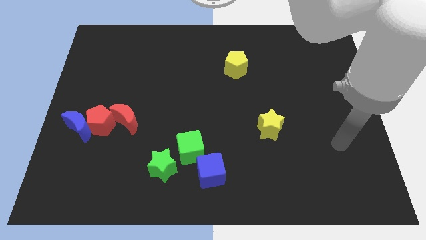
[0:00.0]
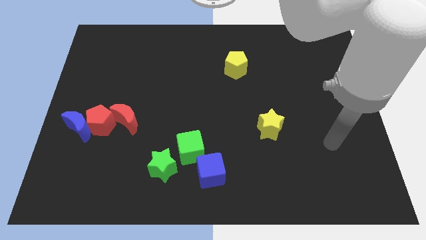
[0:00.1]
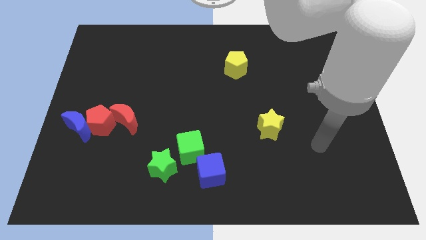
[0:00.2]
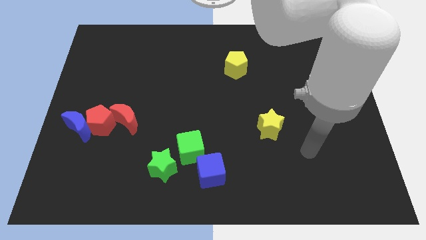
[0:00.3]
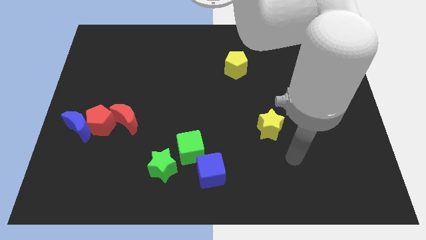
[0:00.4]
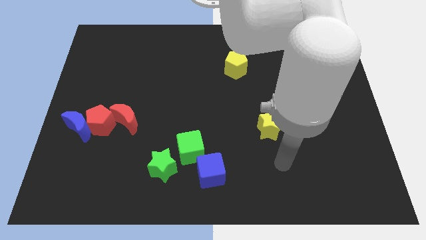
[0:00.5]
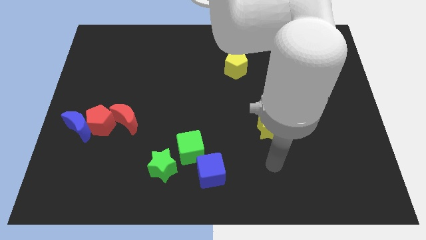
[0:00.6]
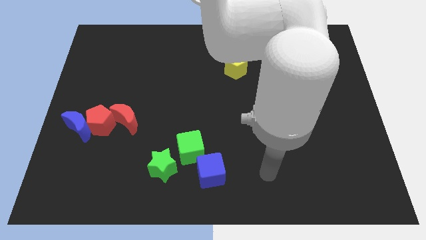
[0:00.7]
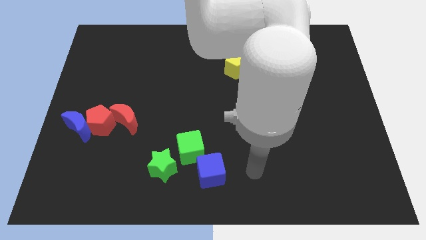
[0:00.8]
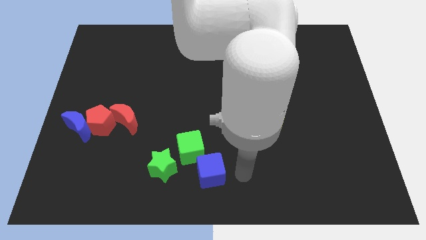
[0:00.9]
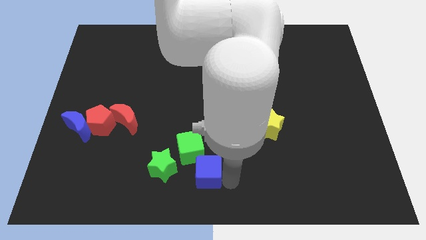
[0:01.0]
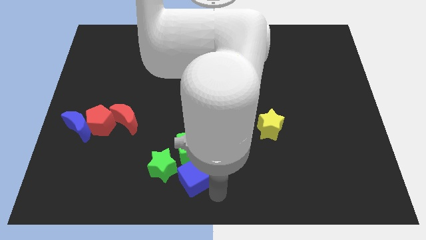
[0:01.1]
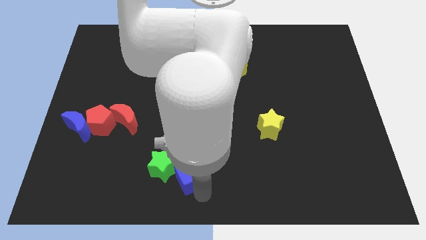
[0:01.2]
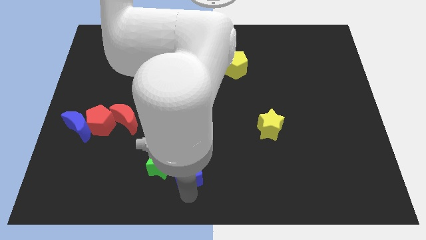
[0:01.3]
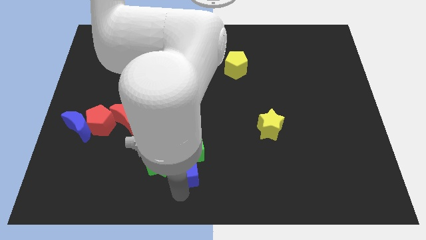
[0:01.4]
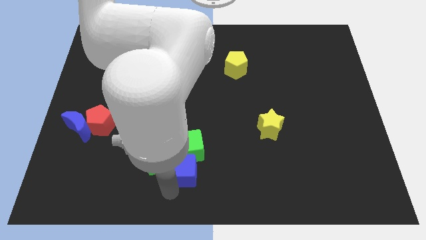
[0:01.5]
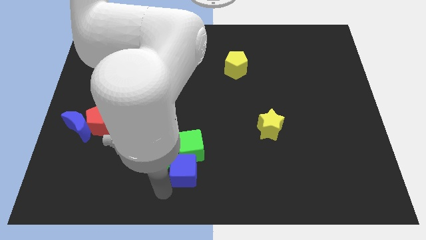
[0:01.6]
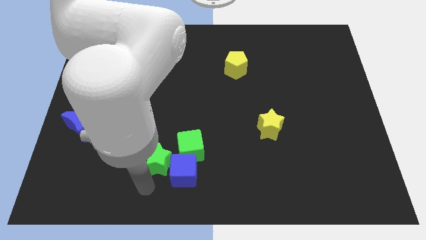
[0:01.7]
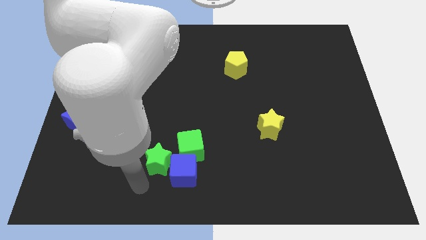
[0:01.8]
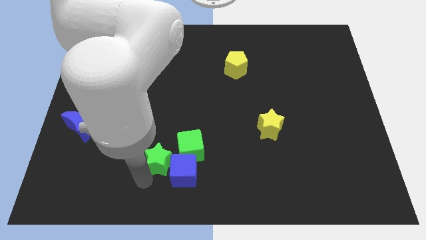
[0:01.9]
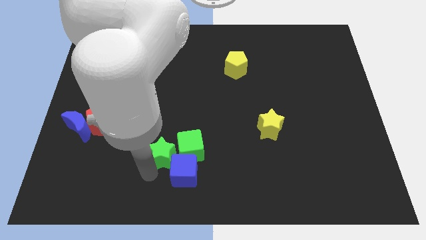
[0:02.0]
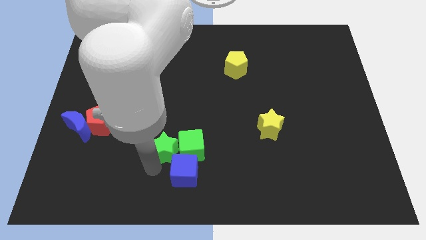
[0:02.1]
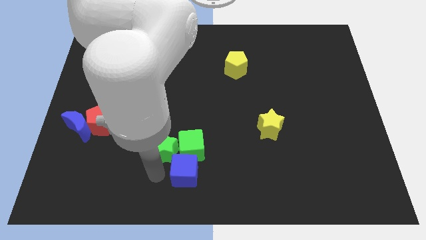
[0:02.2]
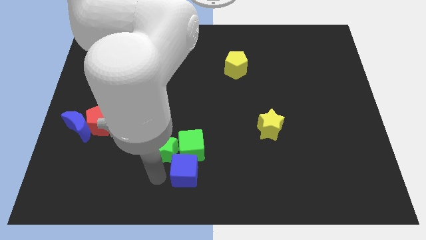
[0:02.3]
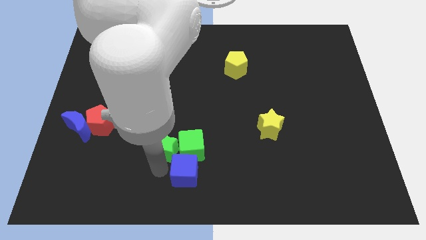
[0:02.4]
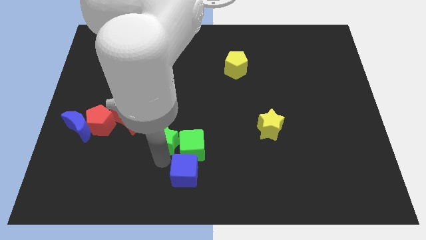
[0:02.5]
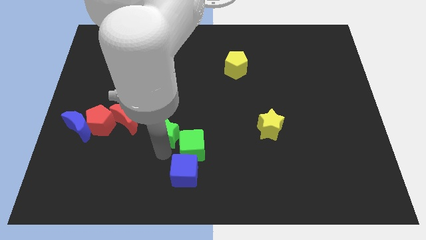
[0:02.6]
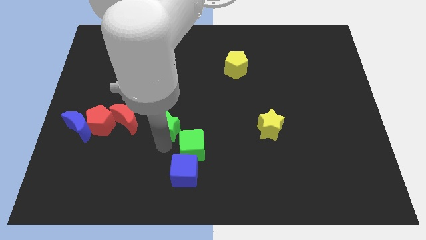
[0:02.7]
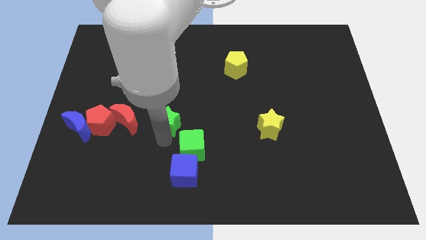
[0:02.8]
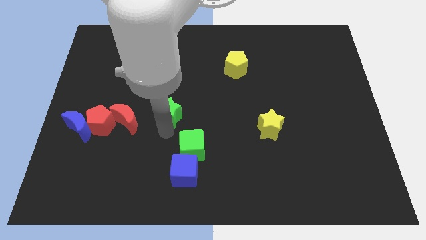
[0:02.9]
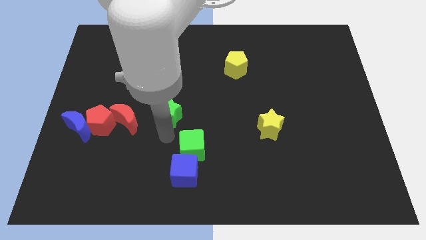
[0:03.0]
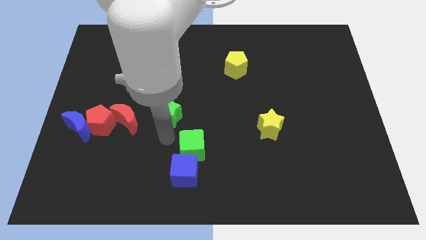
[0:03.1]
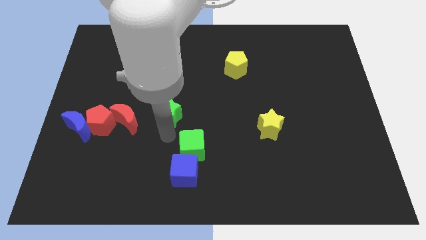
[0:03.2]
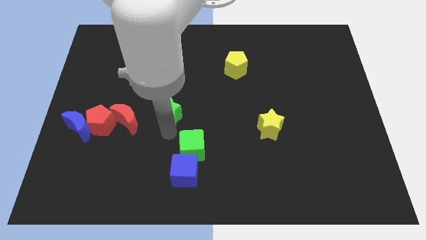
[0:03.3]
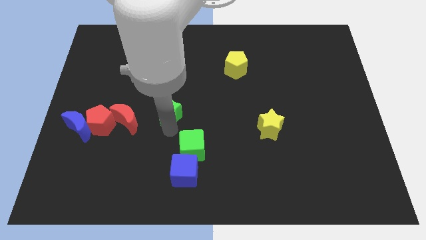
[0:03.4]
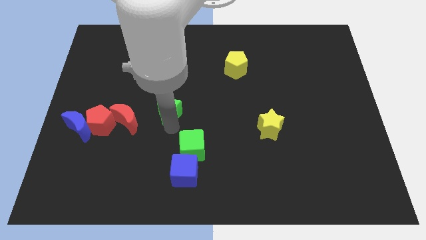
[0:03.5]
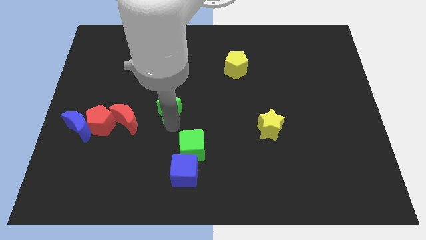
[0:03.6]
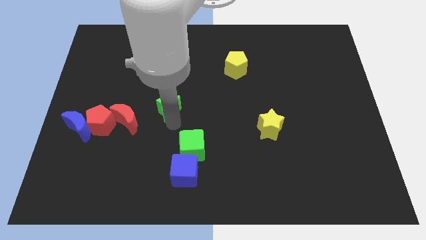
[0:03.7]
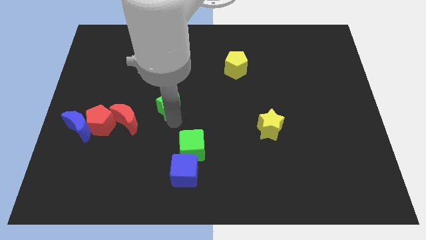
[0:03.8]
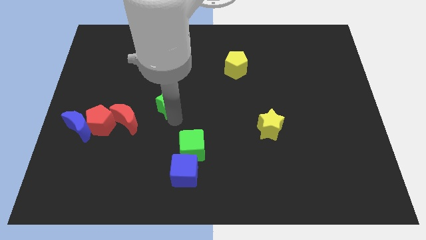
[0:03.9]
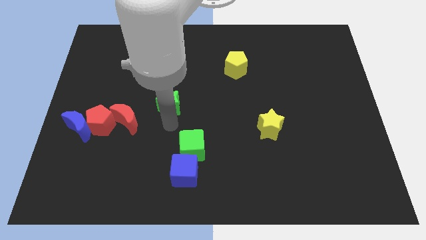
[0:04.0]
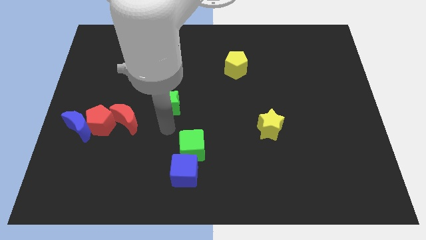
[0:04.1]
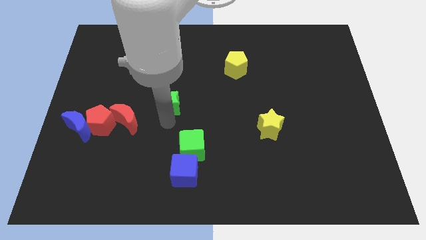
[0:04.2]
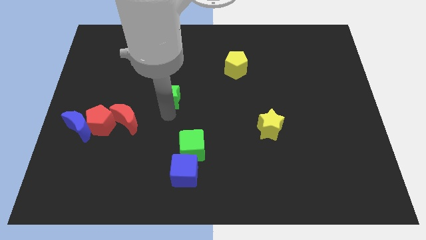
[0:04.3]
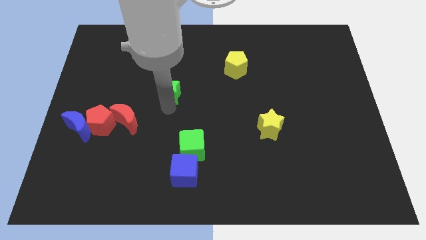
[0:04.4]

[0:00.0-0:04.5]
push the green star upwards

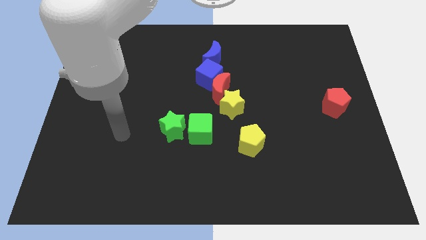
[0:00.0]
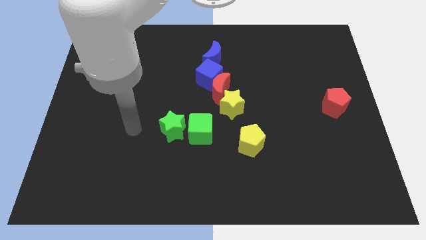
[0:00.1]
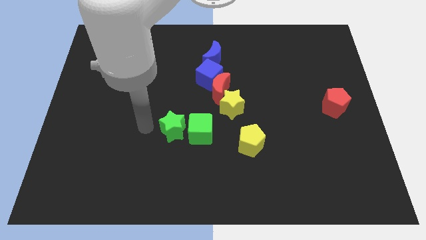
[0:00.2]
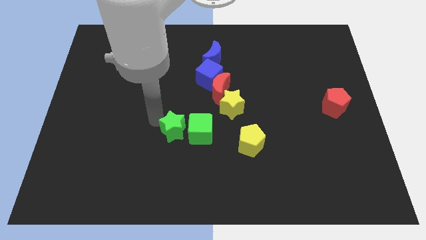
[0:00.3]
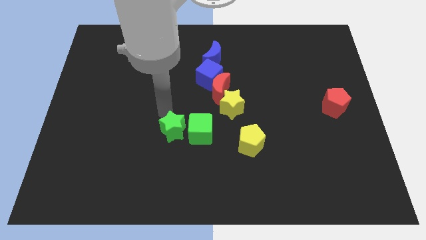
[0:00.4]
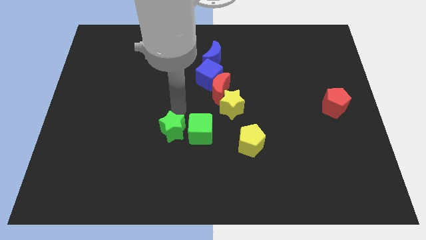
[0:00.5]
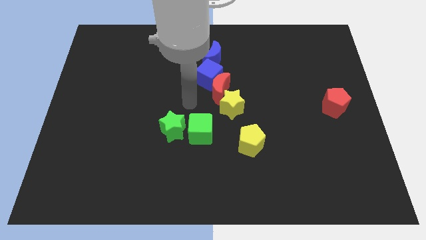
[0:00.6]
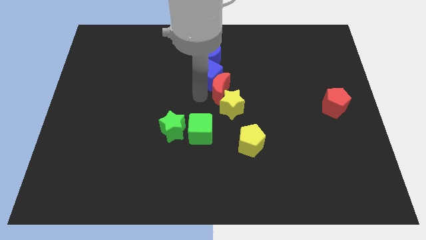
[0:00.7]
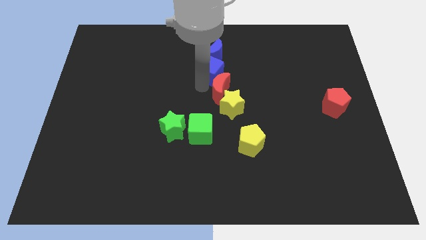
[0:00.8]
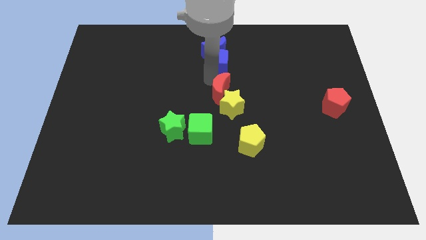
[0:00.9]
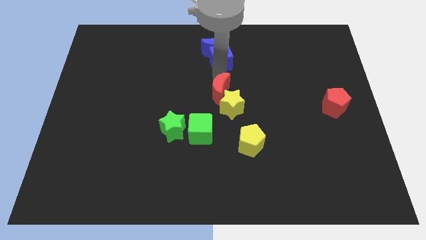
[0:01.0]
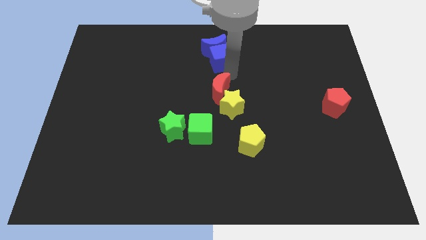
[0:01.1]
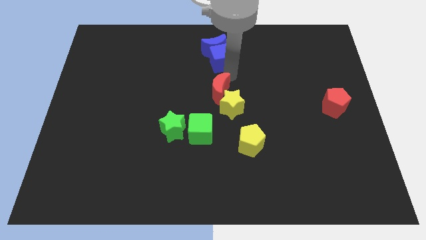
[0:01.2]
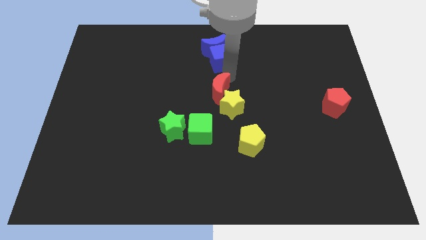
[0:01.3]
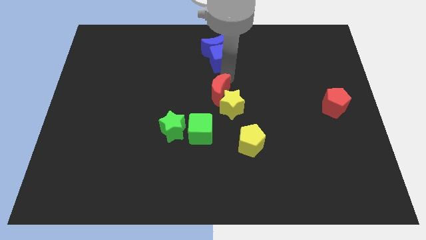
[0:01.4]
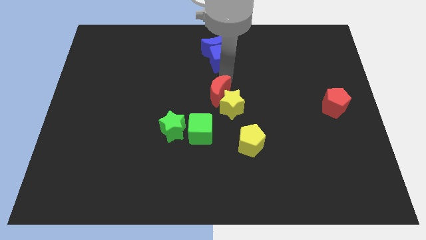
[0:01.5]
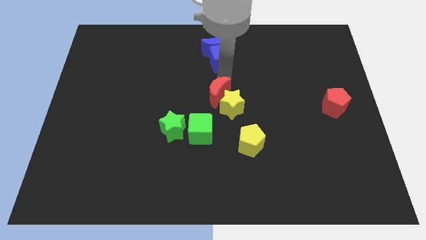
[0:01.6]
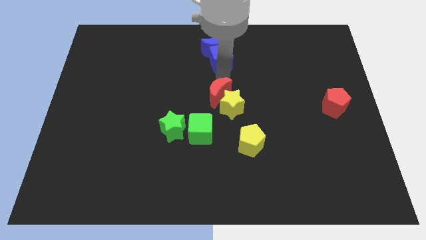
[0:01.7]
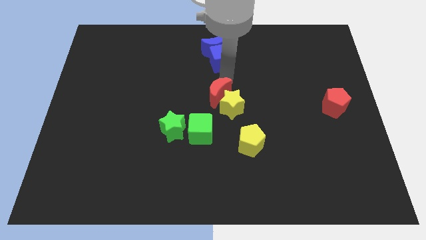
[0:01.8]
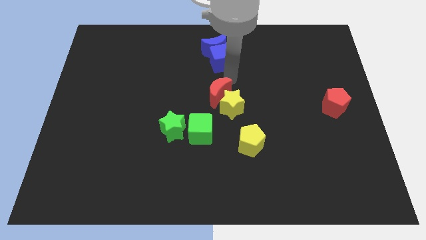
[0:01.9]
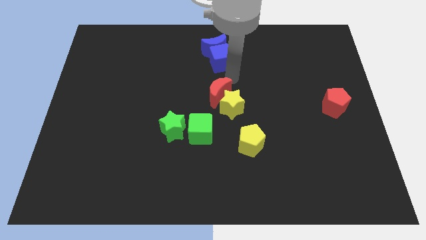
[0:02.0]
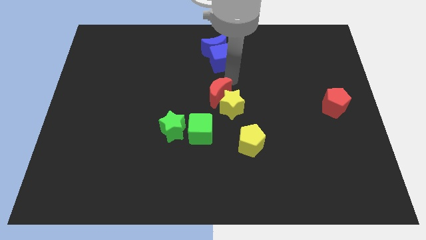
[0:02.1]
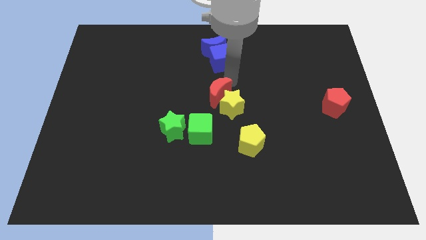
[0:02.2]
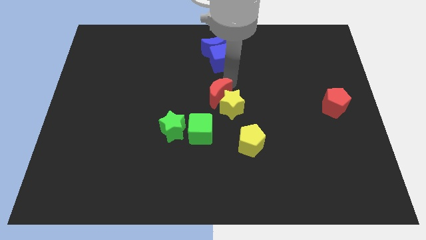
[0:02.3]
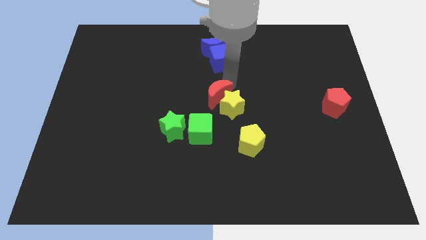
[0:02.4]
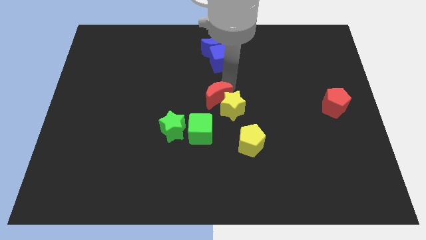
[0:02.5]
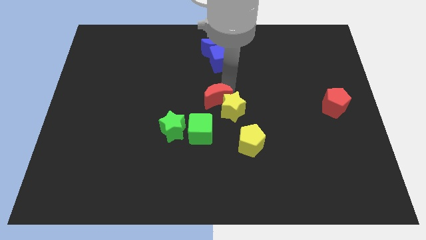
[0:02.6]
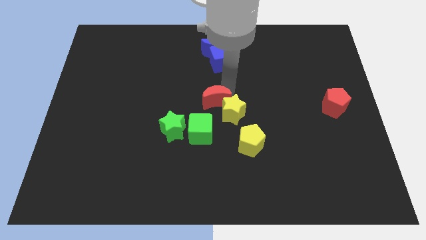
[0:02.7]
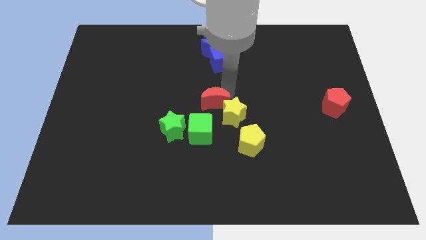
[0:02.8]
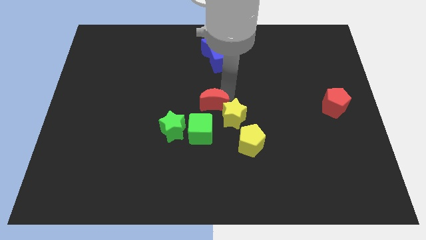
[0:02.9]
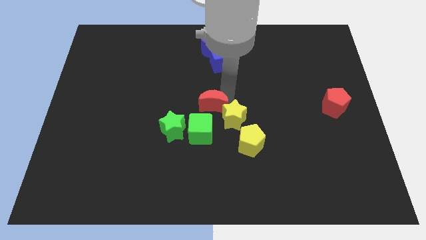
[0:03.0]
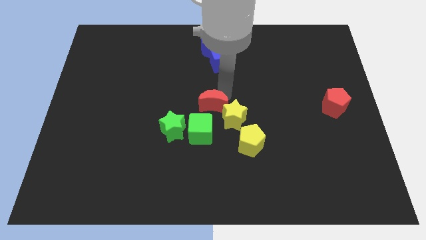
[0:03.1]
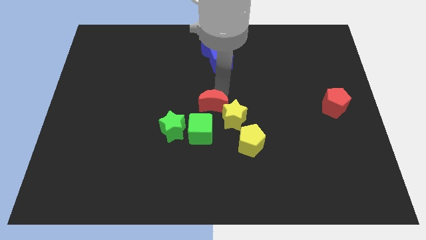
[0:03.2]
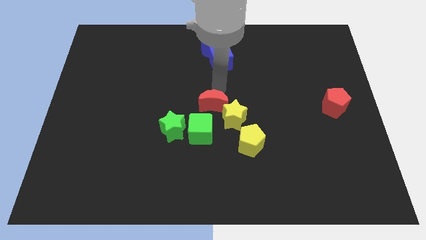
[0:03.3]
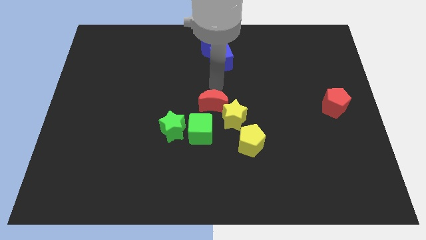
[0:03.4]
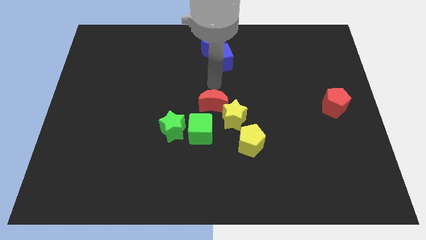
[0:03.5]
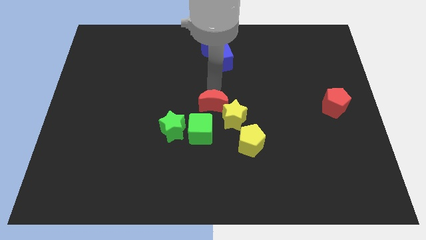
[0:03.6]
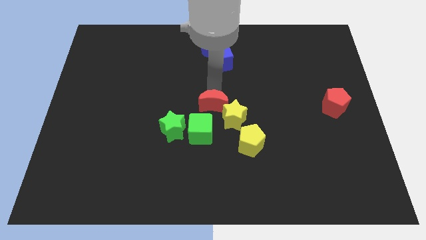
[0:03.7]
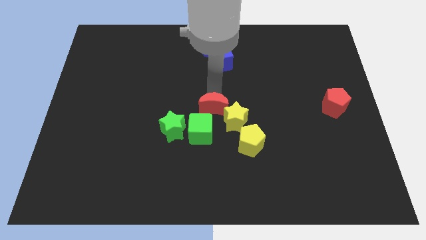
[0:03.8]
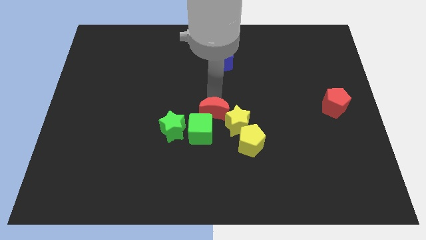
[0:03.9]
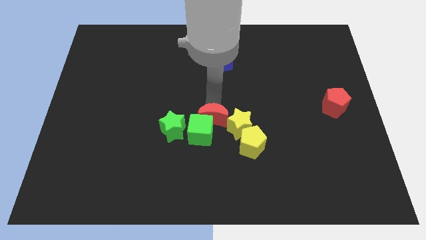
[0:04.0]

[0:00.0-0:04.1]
slightly move the red moon downwards
